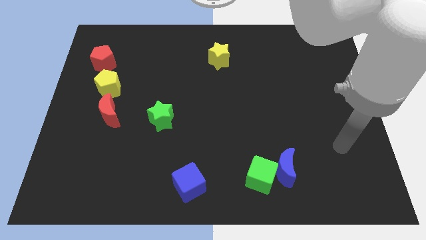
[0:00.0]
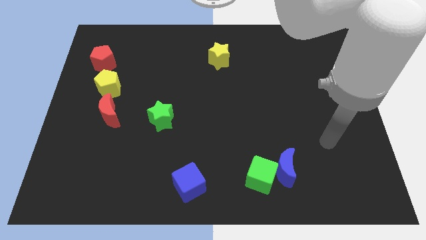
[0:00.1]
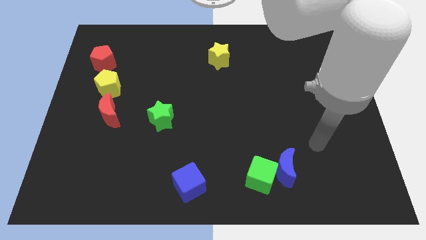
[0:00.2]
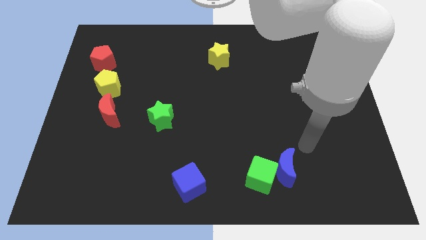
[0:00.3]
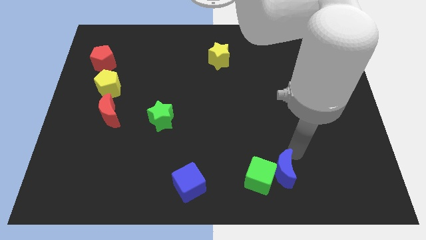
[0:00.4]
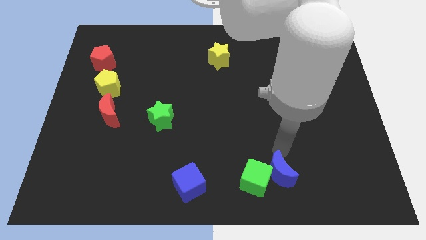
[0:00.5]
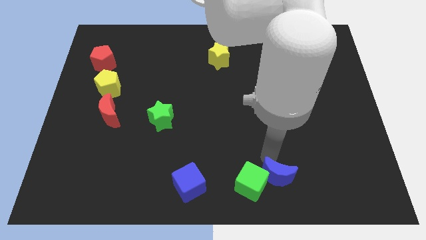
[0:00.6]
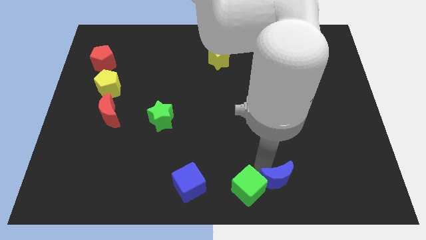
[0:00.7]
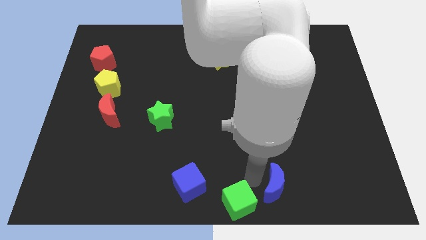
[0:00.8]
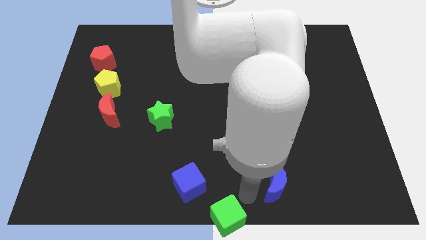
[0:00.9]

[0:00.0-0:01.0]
move the blue moon away from the green cube

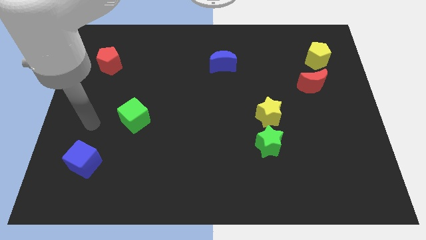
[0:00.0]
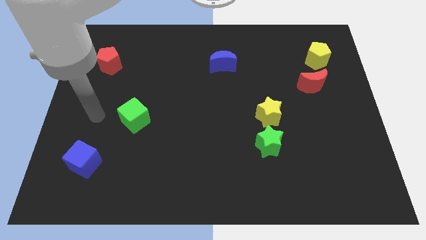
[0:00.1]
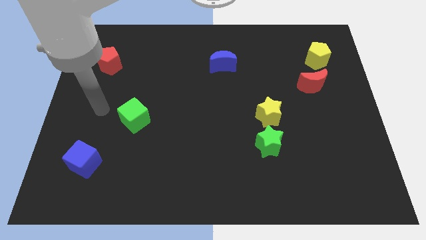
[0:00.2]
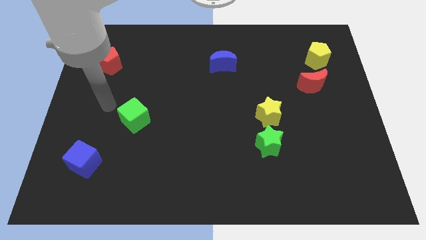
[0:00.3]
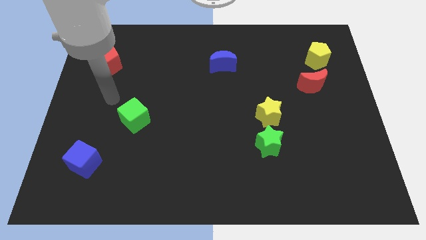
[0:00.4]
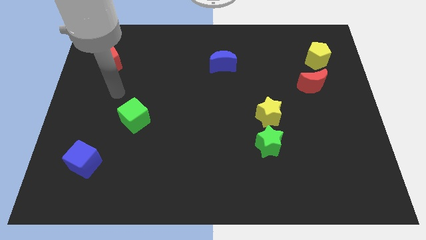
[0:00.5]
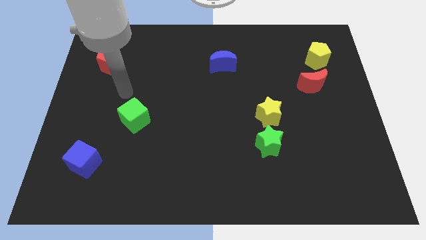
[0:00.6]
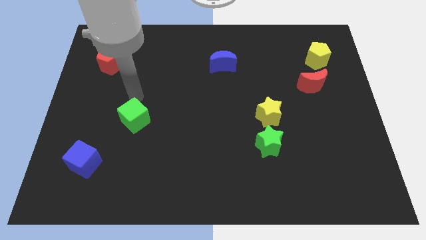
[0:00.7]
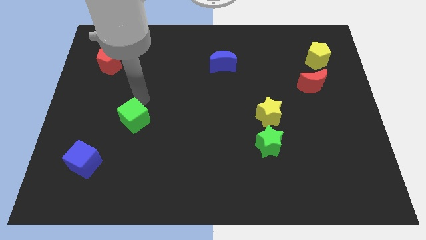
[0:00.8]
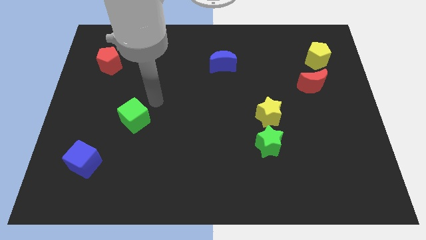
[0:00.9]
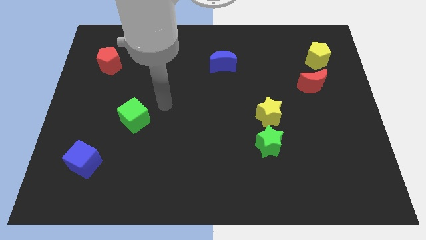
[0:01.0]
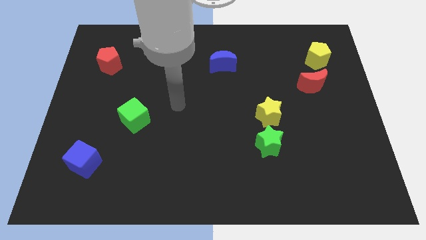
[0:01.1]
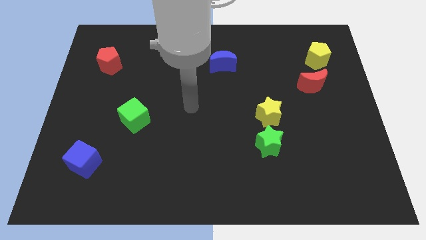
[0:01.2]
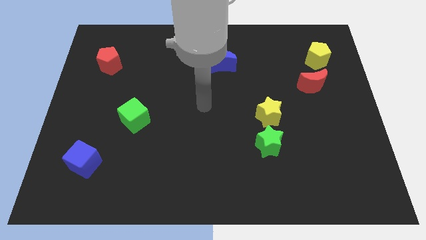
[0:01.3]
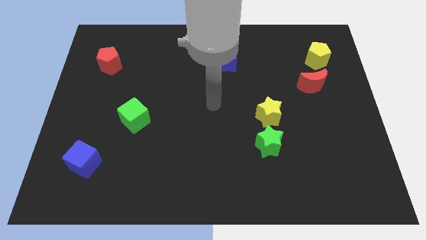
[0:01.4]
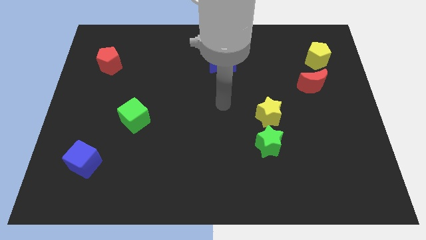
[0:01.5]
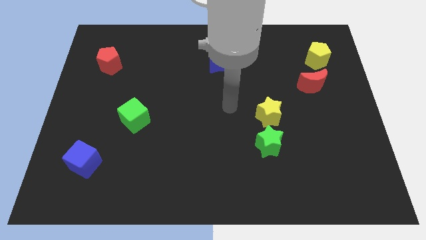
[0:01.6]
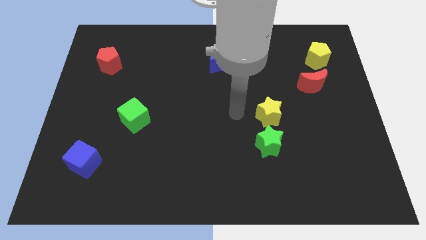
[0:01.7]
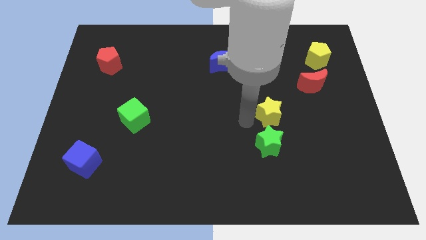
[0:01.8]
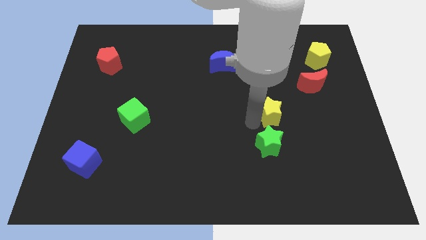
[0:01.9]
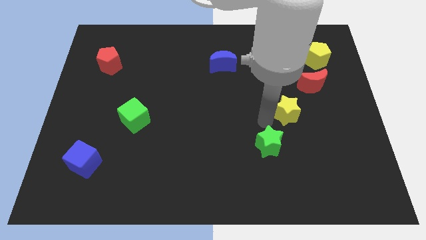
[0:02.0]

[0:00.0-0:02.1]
move the green star away from the yellow star

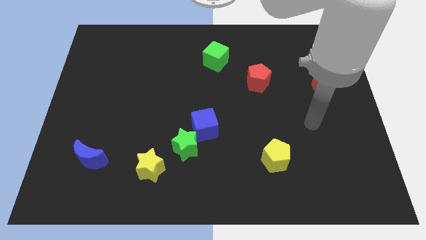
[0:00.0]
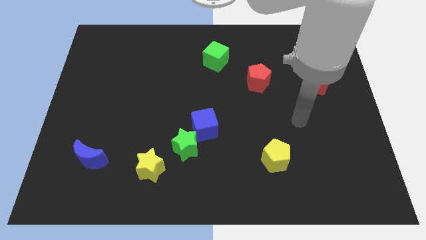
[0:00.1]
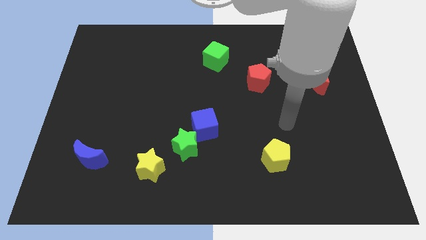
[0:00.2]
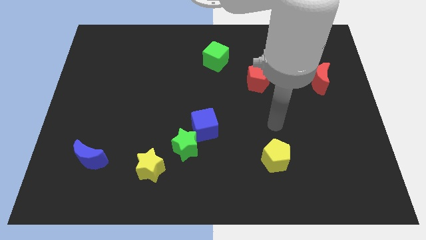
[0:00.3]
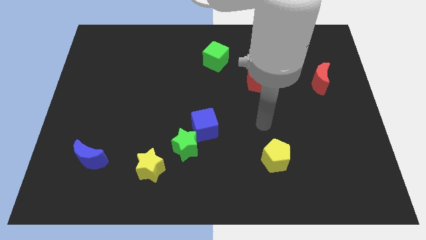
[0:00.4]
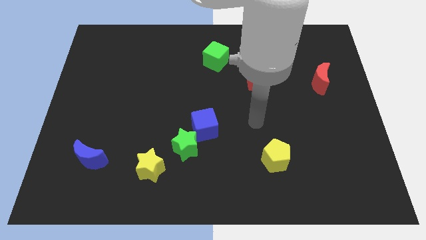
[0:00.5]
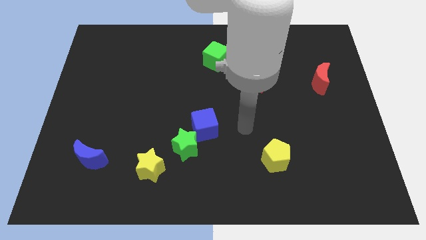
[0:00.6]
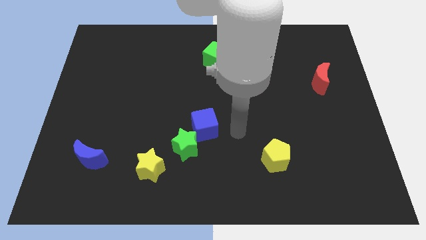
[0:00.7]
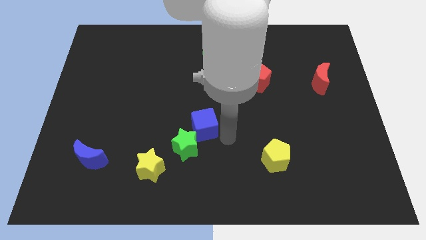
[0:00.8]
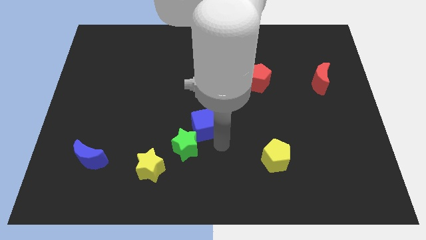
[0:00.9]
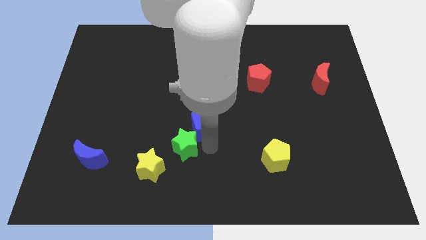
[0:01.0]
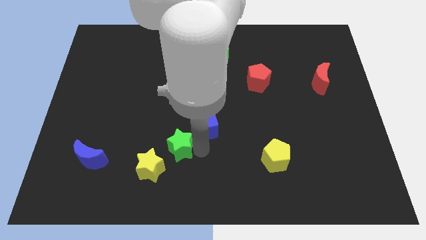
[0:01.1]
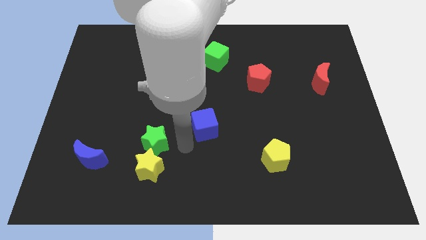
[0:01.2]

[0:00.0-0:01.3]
separate the blue cube from the green star

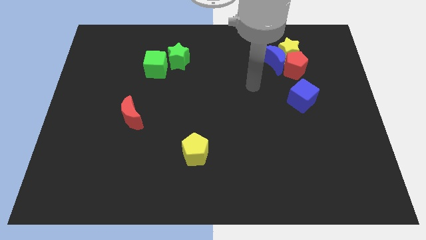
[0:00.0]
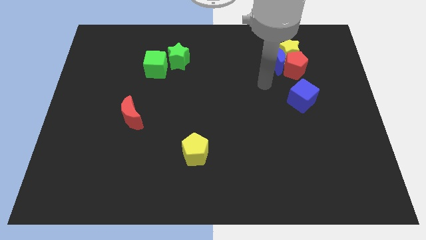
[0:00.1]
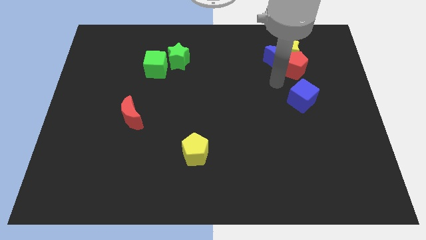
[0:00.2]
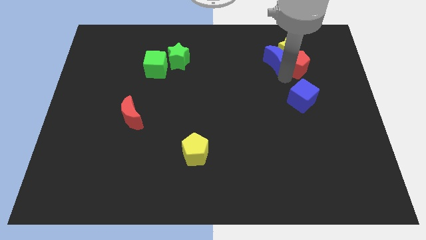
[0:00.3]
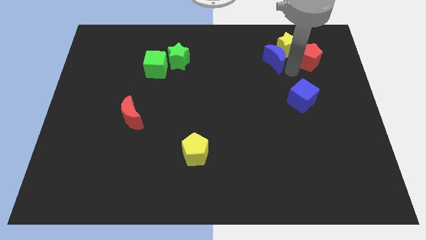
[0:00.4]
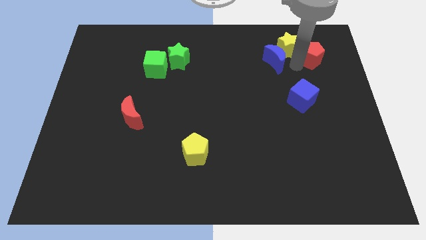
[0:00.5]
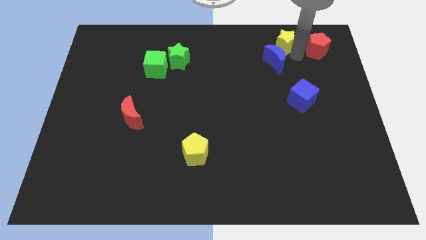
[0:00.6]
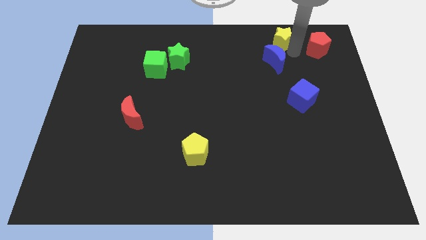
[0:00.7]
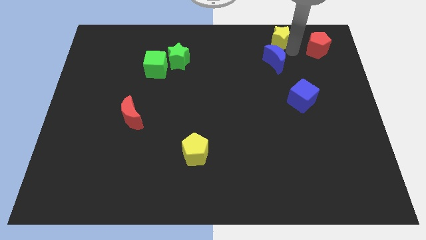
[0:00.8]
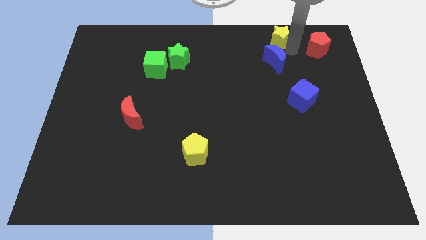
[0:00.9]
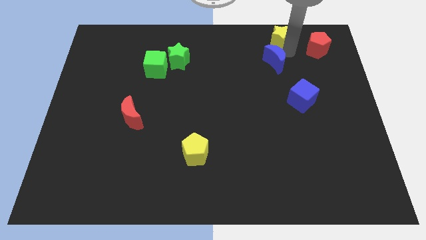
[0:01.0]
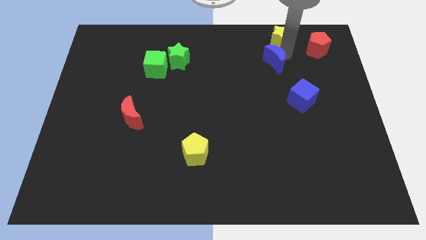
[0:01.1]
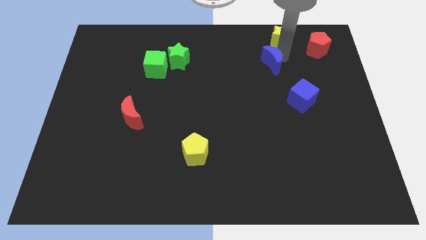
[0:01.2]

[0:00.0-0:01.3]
separate the blue moon from the yellow star and red pentagon

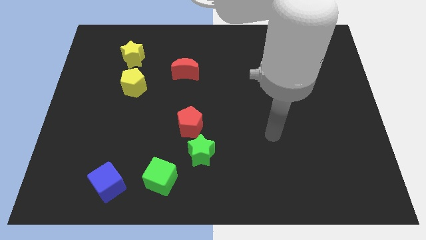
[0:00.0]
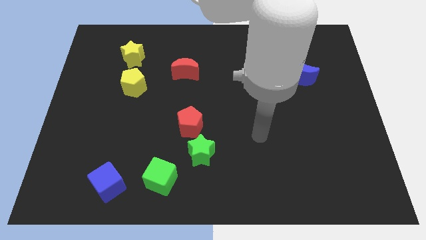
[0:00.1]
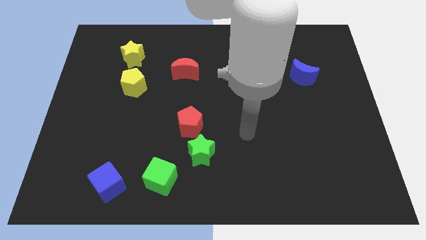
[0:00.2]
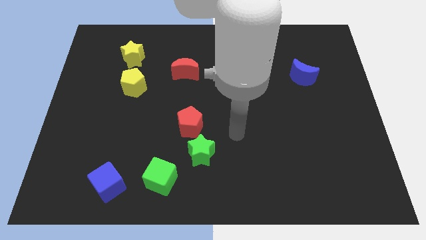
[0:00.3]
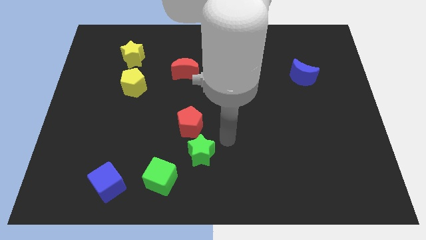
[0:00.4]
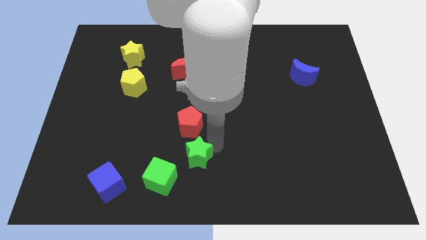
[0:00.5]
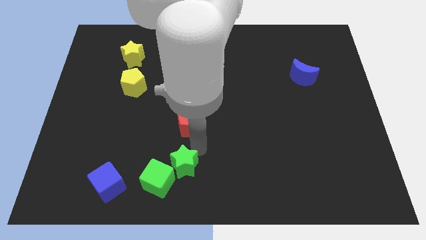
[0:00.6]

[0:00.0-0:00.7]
pull the red pentagon apart from the green star

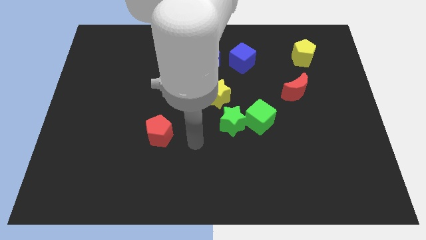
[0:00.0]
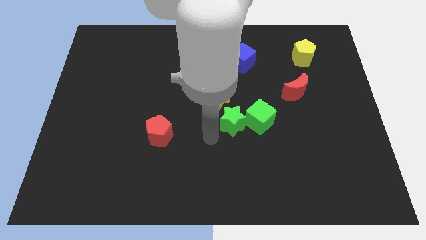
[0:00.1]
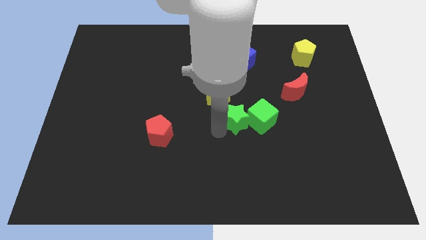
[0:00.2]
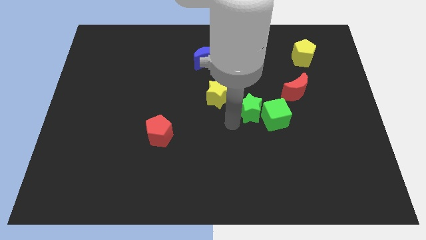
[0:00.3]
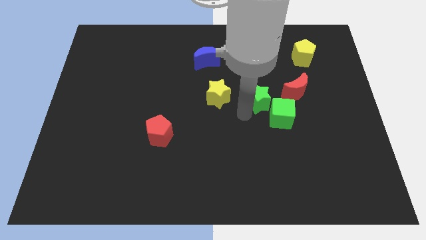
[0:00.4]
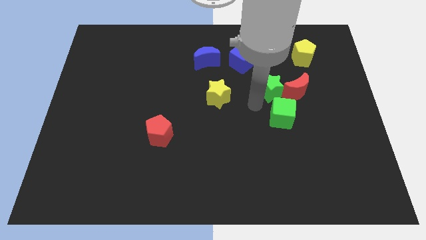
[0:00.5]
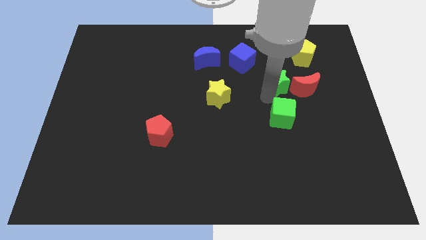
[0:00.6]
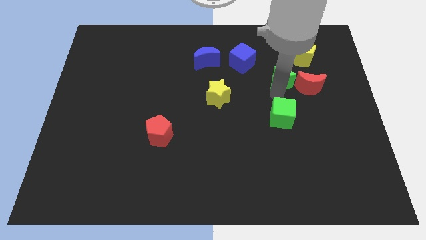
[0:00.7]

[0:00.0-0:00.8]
separate the green cube from the green star

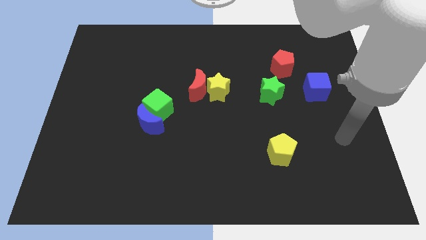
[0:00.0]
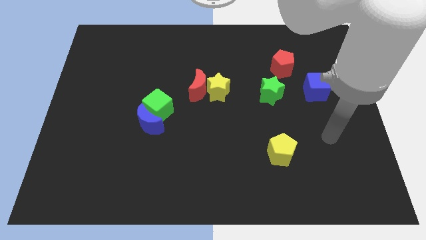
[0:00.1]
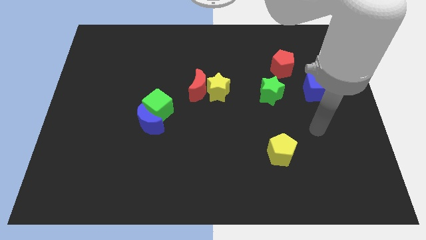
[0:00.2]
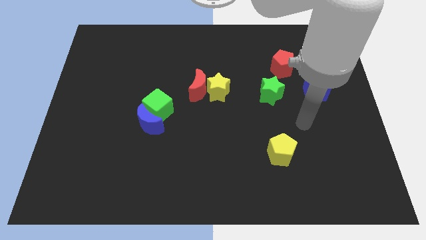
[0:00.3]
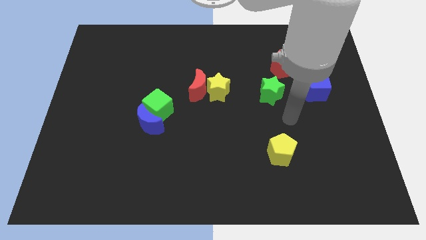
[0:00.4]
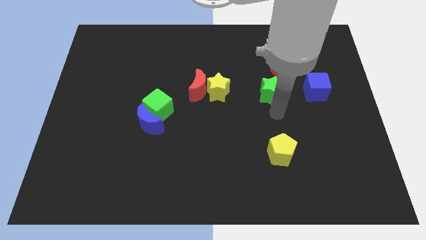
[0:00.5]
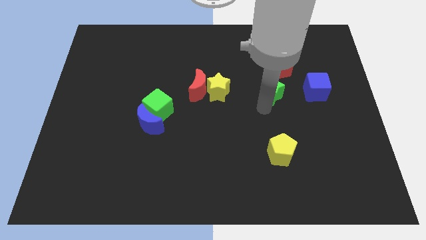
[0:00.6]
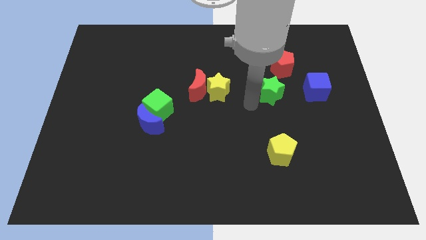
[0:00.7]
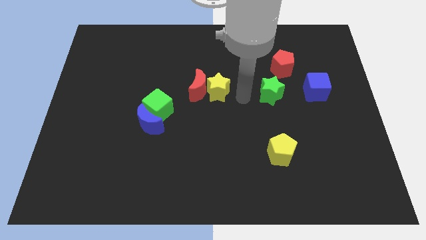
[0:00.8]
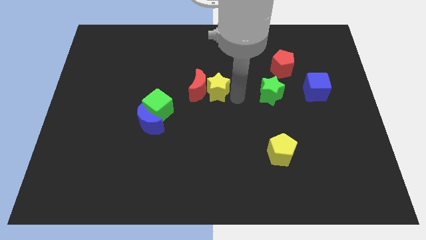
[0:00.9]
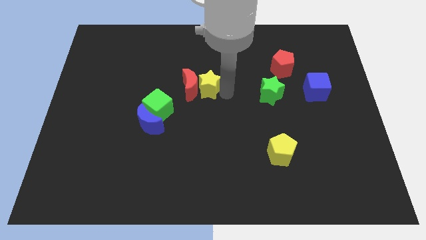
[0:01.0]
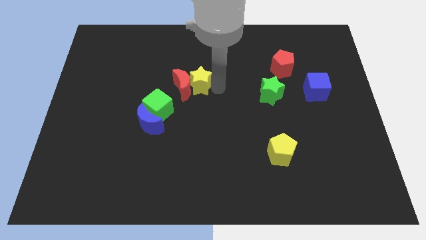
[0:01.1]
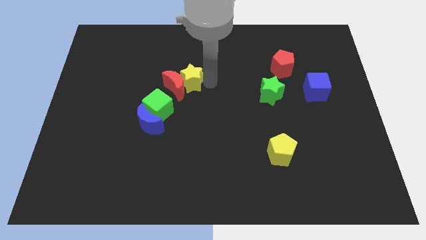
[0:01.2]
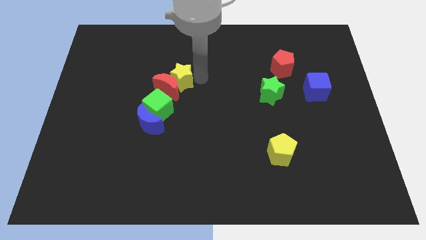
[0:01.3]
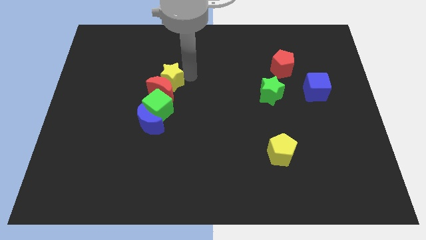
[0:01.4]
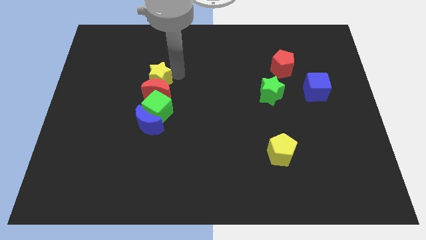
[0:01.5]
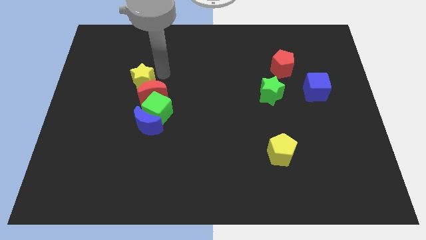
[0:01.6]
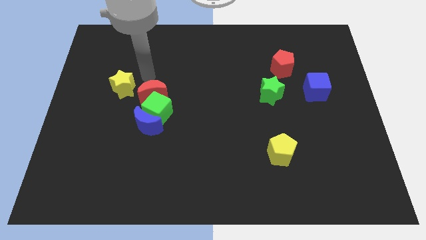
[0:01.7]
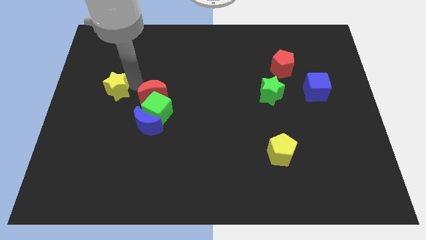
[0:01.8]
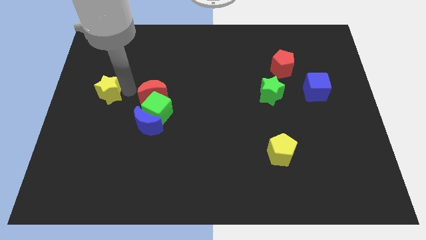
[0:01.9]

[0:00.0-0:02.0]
pull the red moon apart from the yellow star
